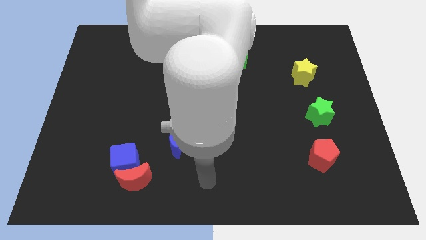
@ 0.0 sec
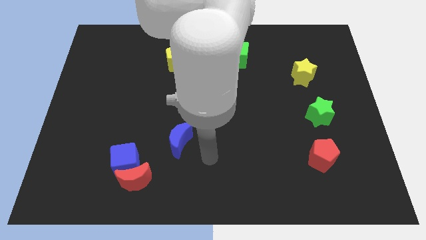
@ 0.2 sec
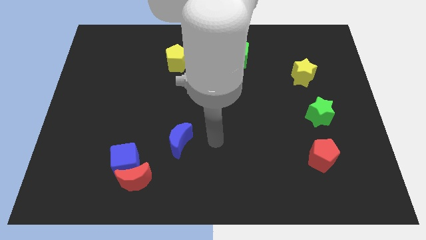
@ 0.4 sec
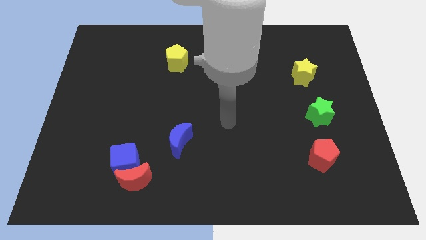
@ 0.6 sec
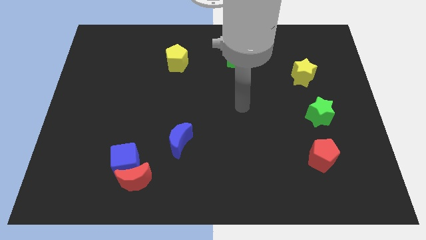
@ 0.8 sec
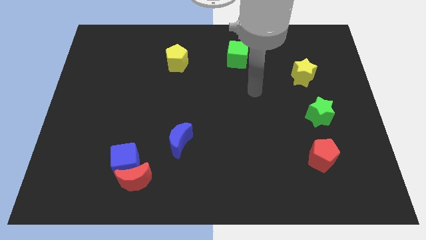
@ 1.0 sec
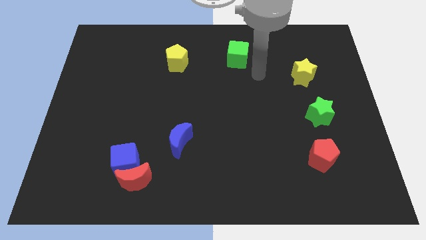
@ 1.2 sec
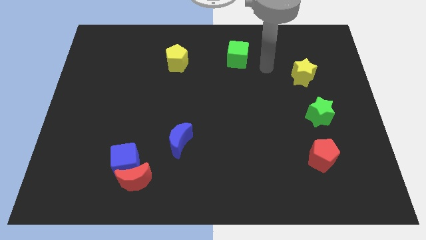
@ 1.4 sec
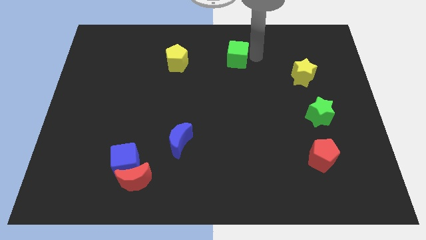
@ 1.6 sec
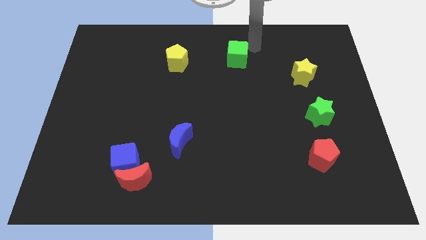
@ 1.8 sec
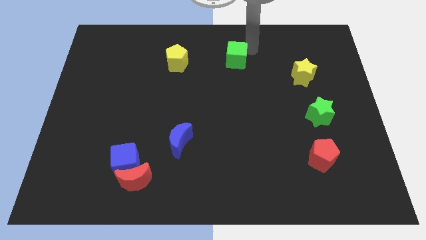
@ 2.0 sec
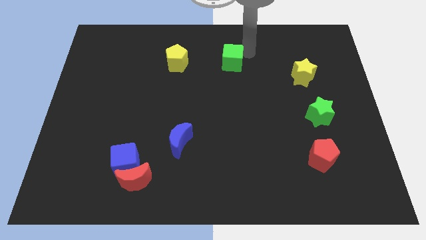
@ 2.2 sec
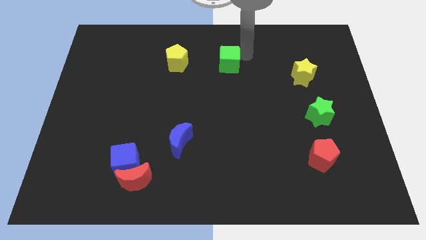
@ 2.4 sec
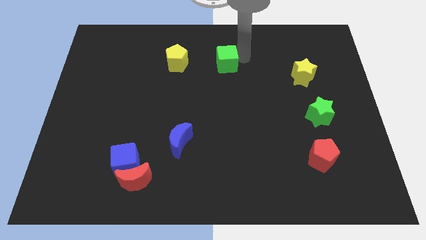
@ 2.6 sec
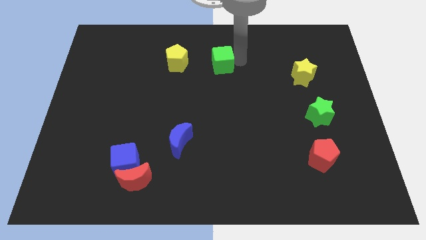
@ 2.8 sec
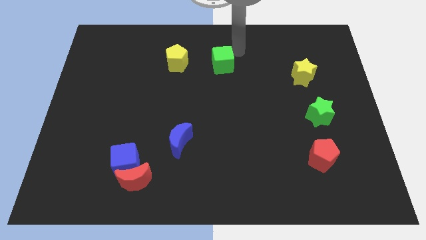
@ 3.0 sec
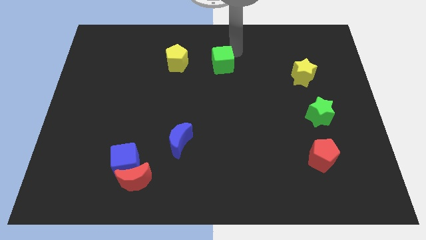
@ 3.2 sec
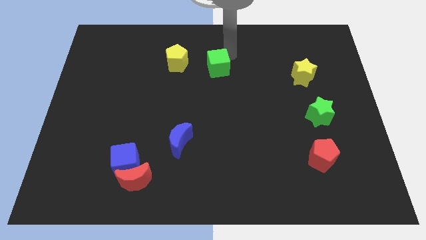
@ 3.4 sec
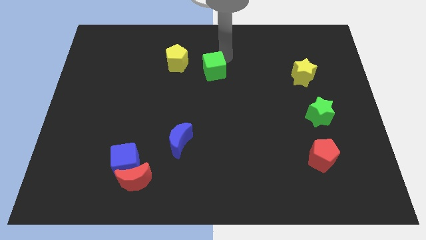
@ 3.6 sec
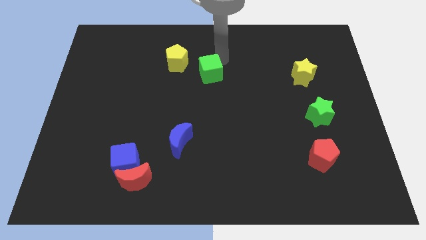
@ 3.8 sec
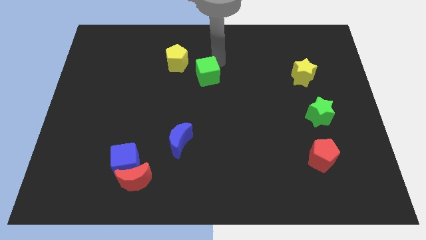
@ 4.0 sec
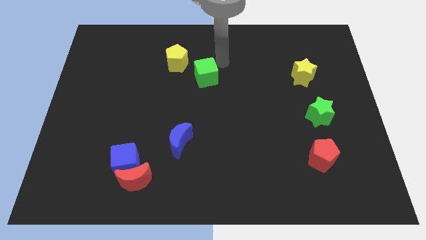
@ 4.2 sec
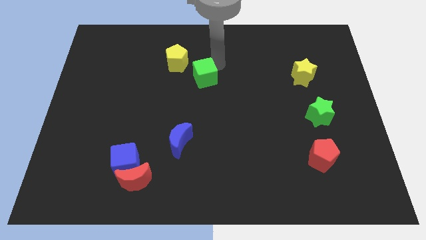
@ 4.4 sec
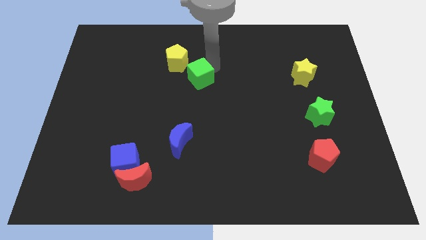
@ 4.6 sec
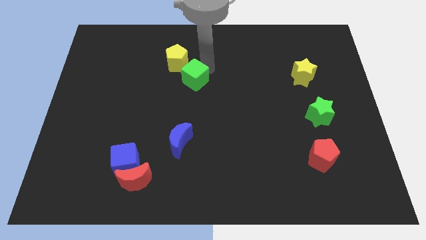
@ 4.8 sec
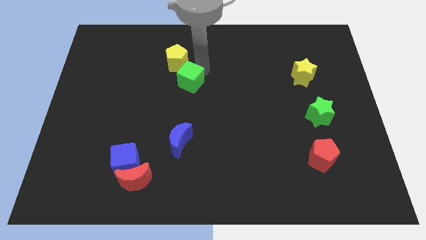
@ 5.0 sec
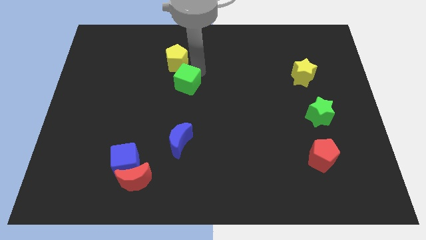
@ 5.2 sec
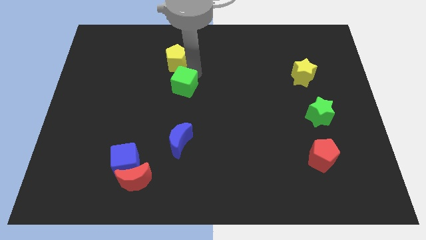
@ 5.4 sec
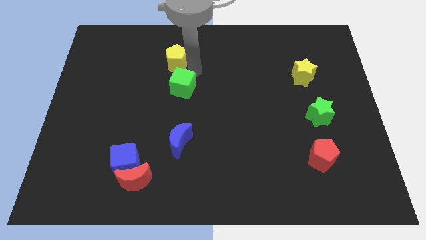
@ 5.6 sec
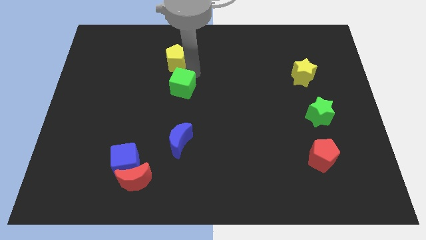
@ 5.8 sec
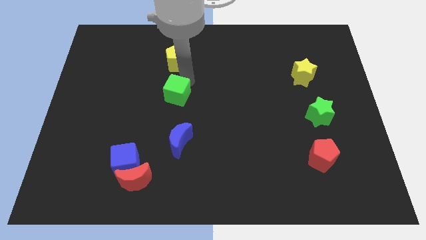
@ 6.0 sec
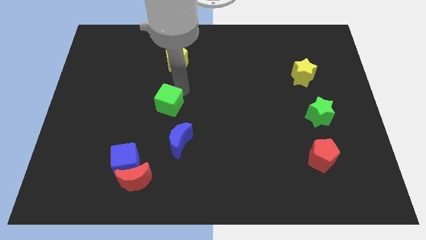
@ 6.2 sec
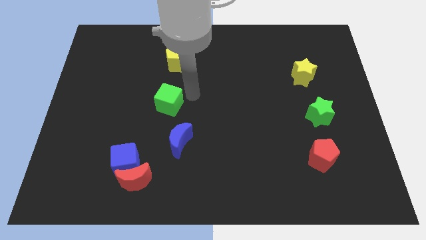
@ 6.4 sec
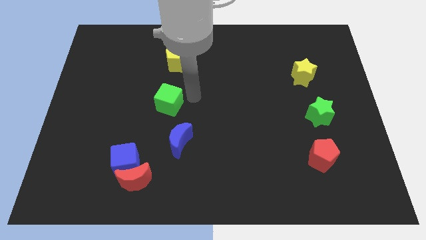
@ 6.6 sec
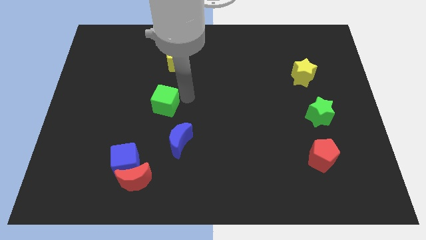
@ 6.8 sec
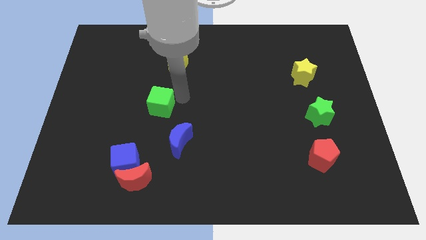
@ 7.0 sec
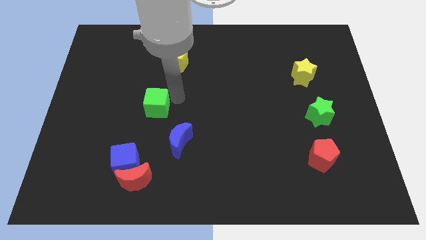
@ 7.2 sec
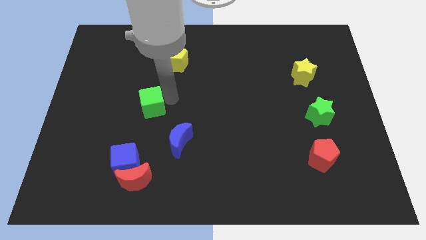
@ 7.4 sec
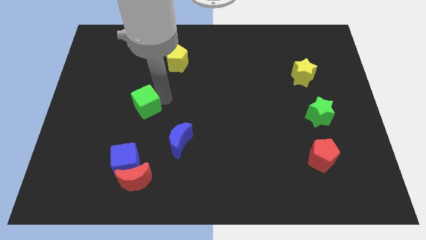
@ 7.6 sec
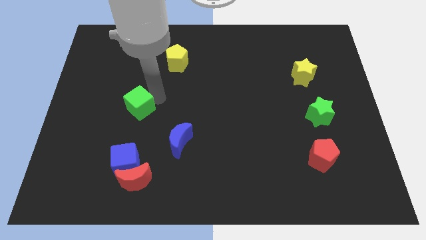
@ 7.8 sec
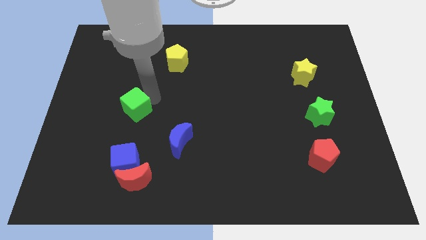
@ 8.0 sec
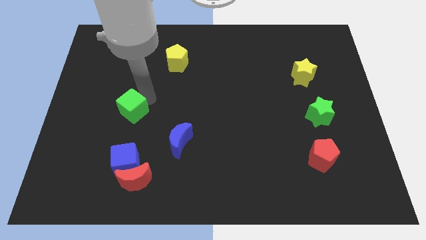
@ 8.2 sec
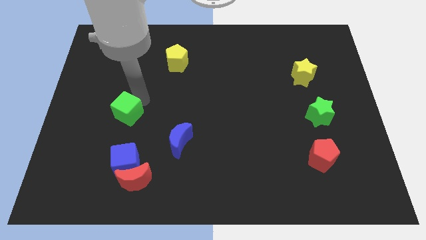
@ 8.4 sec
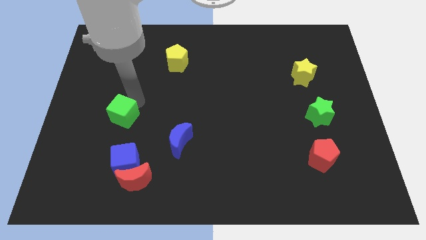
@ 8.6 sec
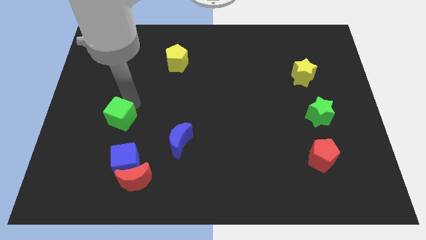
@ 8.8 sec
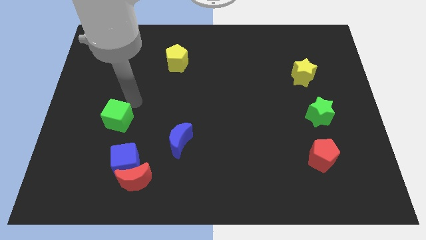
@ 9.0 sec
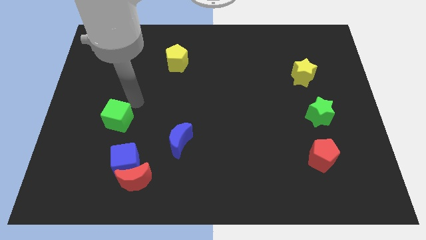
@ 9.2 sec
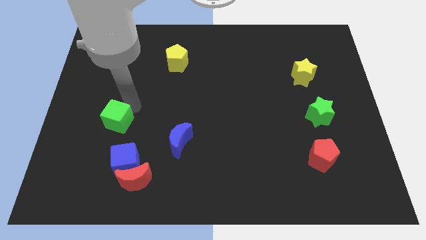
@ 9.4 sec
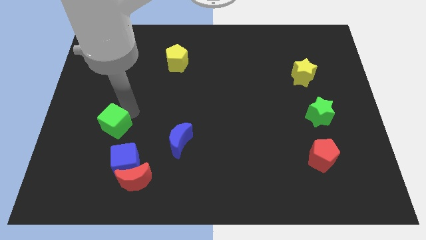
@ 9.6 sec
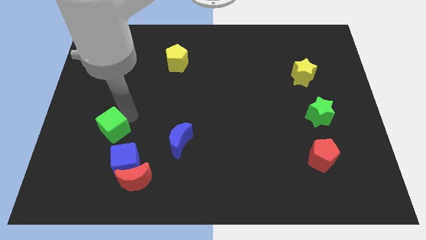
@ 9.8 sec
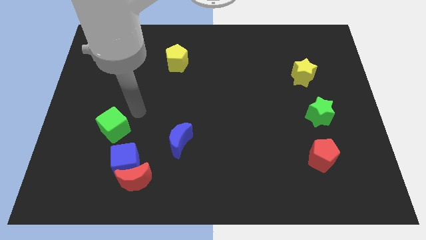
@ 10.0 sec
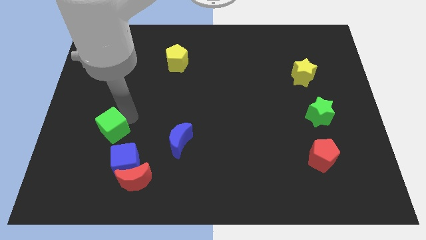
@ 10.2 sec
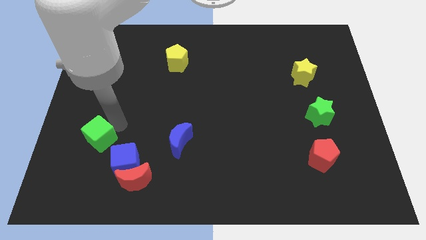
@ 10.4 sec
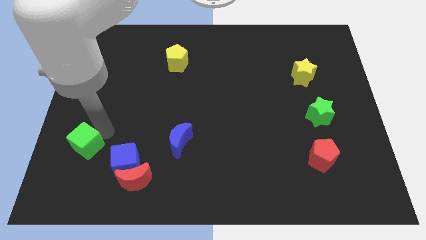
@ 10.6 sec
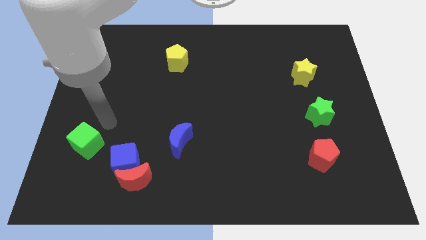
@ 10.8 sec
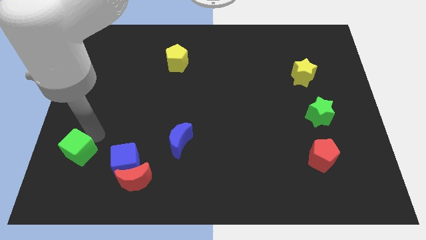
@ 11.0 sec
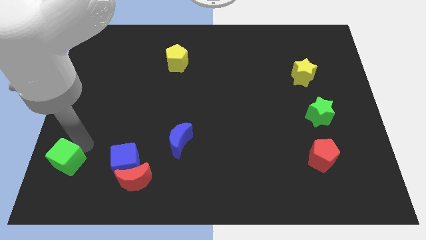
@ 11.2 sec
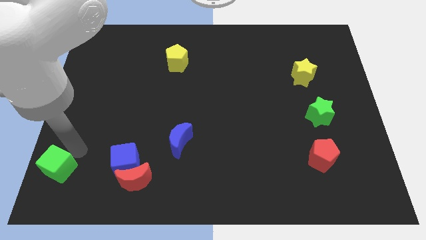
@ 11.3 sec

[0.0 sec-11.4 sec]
push the green cube to the bottom left of the board

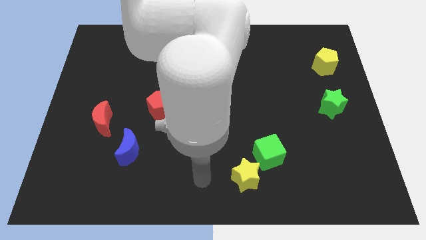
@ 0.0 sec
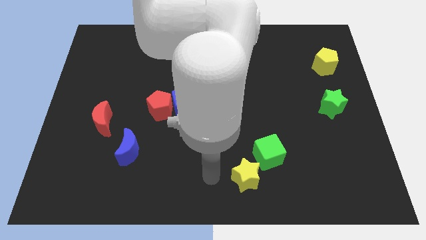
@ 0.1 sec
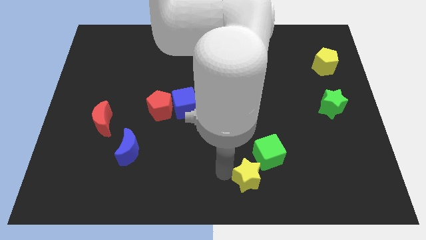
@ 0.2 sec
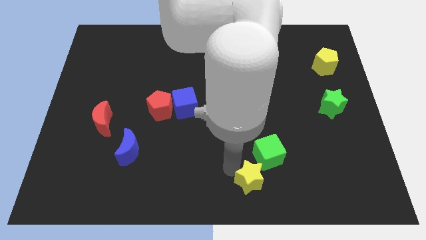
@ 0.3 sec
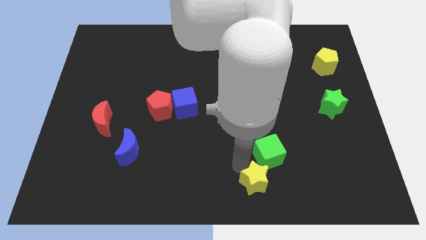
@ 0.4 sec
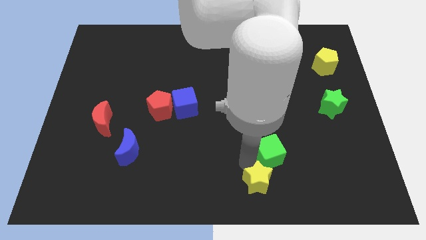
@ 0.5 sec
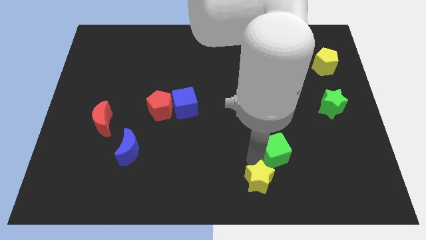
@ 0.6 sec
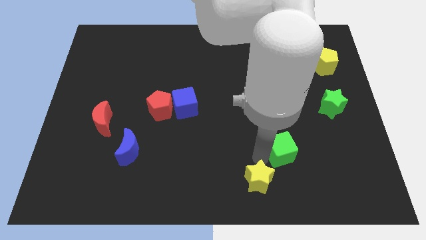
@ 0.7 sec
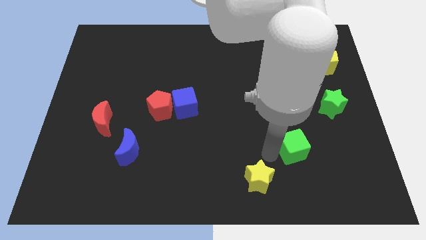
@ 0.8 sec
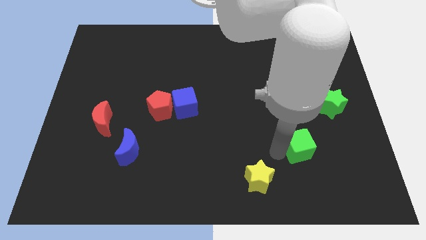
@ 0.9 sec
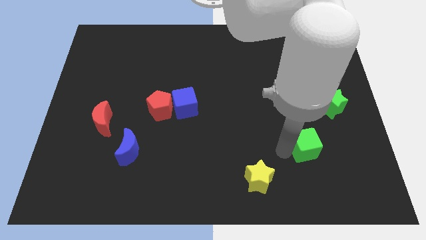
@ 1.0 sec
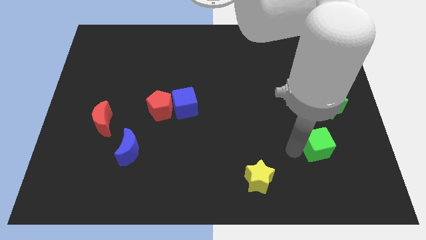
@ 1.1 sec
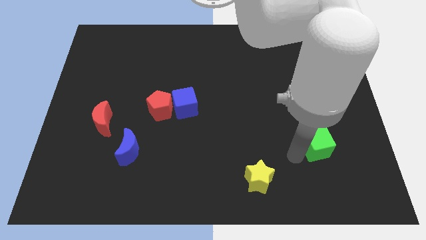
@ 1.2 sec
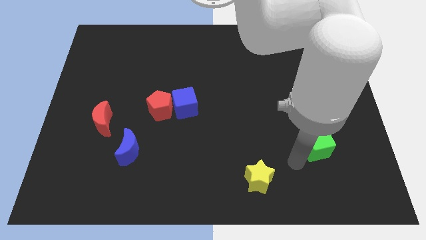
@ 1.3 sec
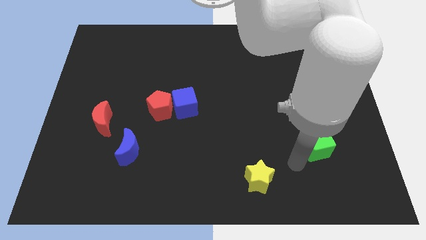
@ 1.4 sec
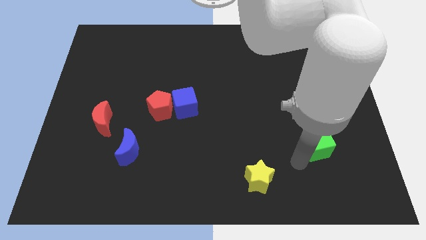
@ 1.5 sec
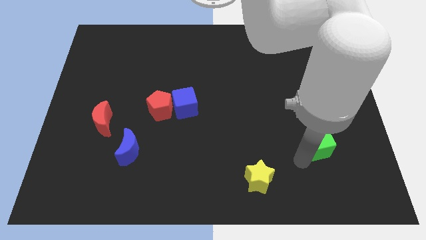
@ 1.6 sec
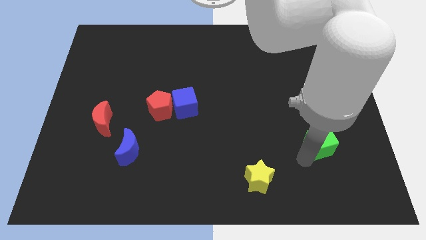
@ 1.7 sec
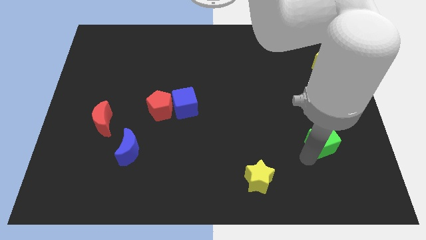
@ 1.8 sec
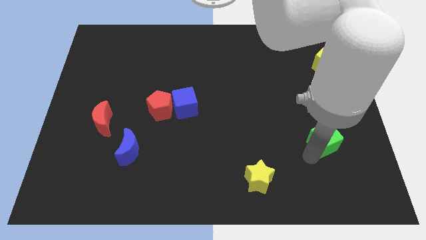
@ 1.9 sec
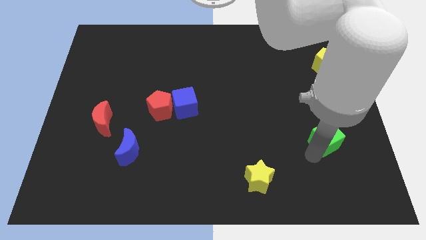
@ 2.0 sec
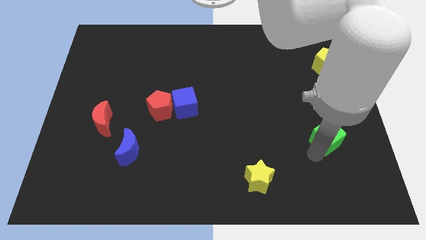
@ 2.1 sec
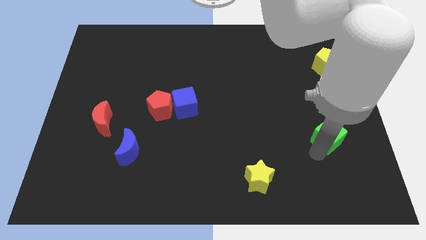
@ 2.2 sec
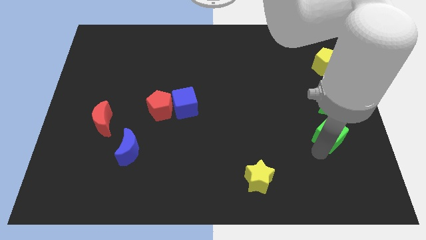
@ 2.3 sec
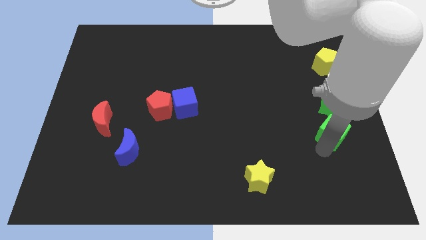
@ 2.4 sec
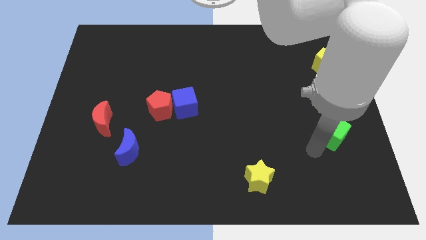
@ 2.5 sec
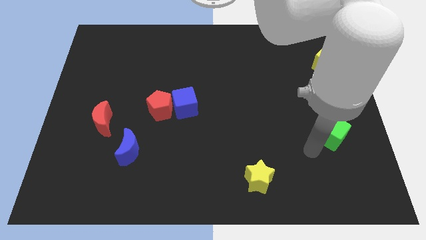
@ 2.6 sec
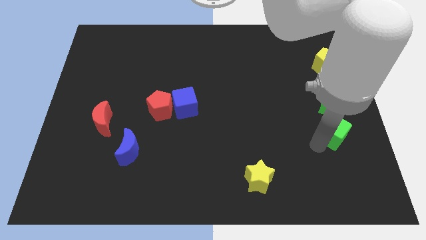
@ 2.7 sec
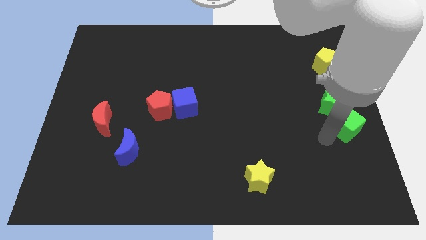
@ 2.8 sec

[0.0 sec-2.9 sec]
push the green cube to the right side
